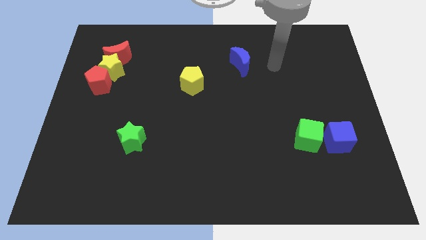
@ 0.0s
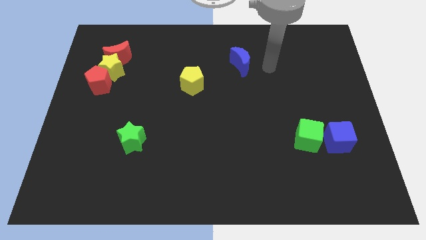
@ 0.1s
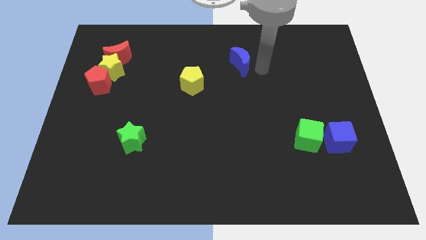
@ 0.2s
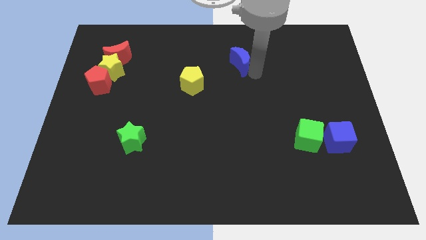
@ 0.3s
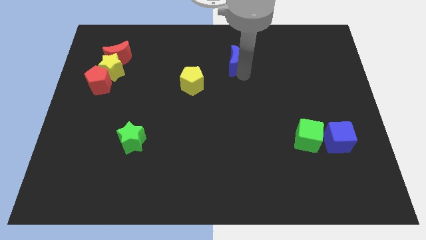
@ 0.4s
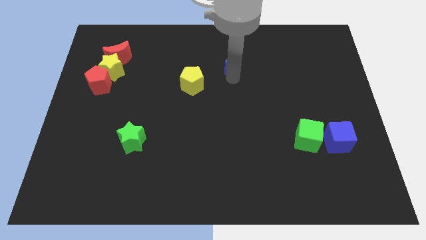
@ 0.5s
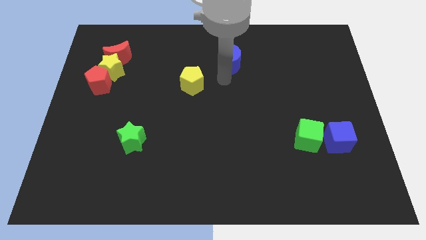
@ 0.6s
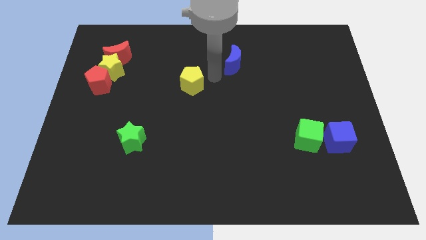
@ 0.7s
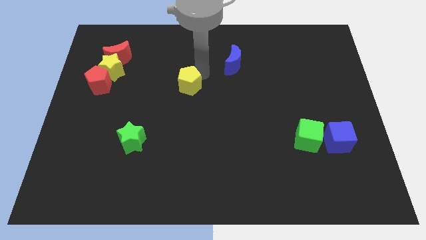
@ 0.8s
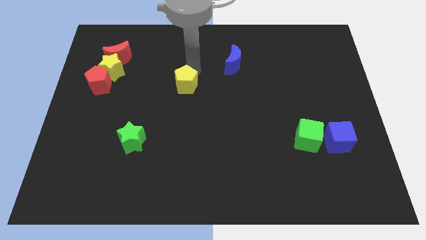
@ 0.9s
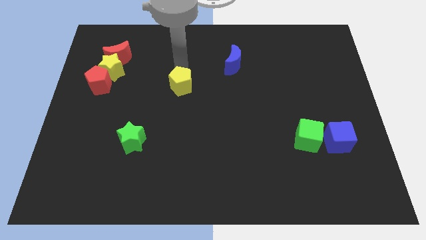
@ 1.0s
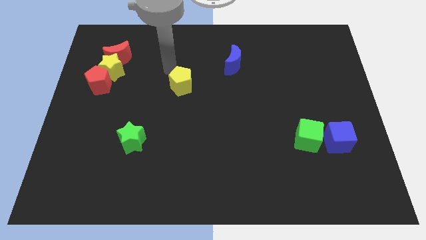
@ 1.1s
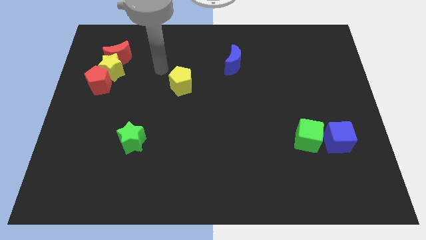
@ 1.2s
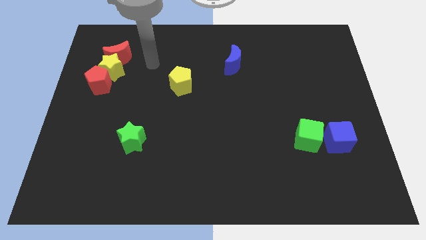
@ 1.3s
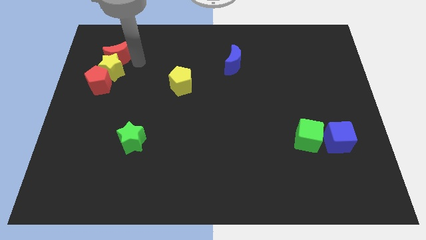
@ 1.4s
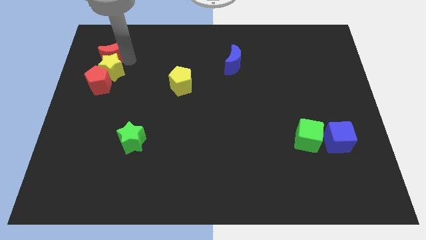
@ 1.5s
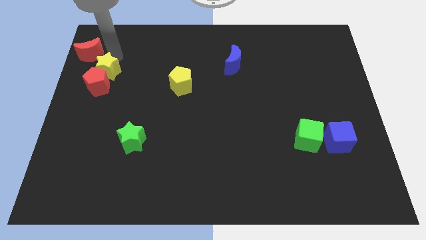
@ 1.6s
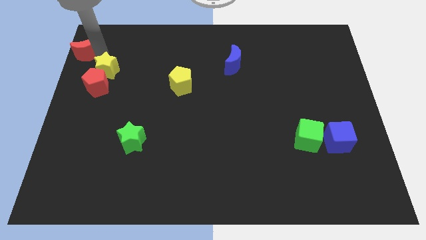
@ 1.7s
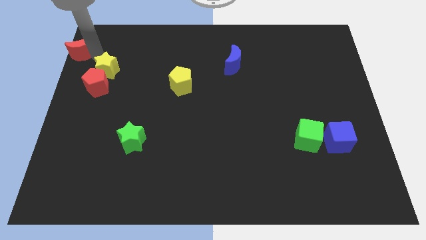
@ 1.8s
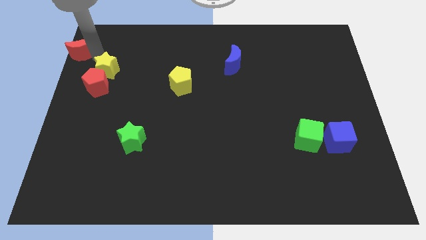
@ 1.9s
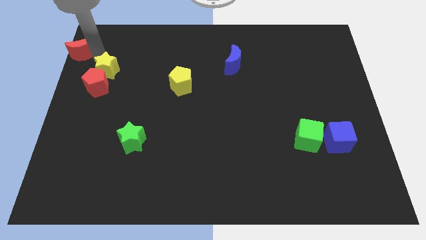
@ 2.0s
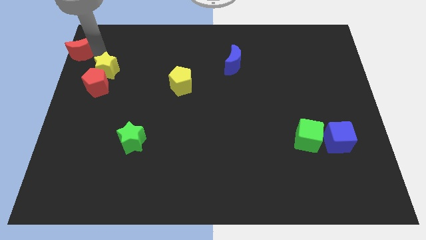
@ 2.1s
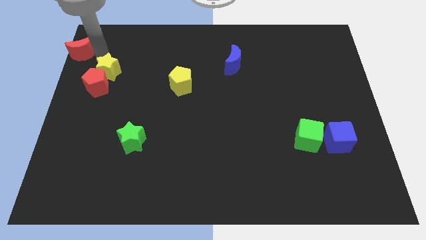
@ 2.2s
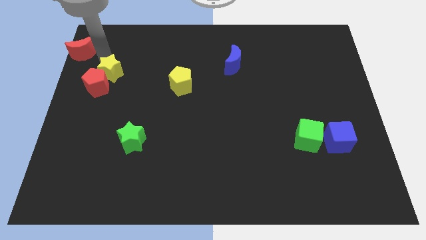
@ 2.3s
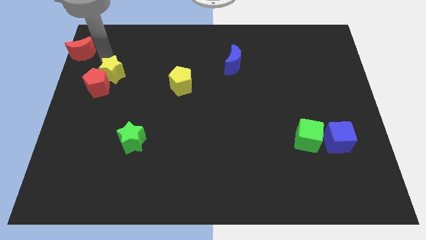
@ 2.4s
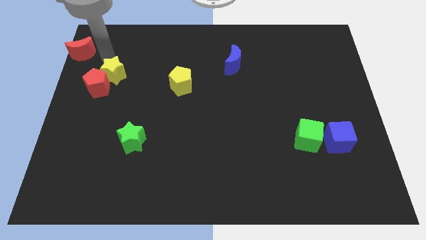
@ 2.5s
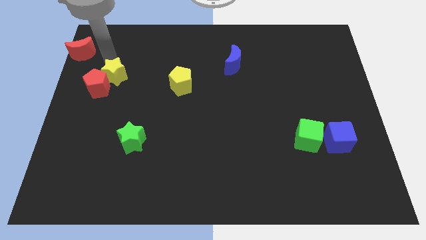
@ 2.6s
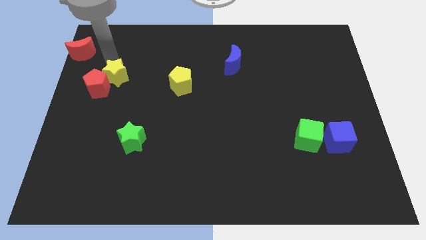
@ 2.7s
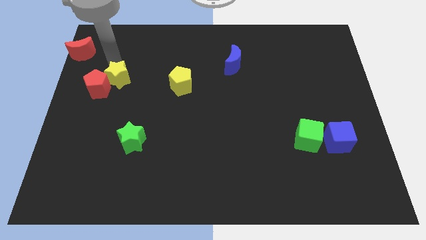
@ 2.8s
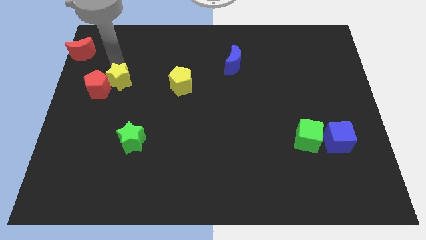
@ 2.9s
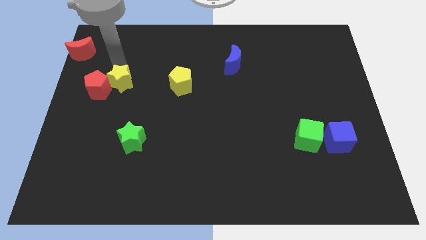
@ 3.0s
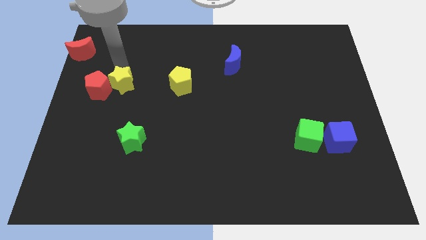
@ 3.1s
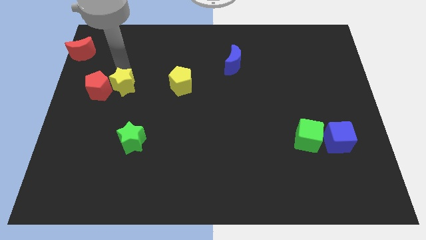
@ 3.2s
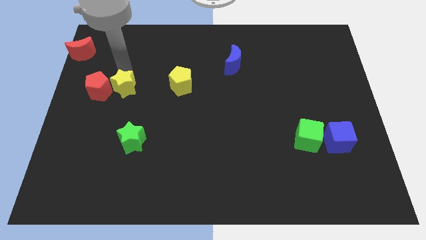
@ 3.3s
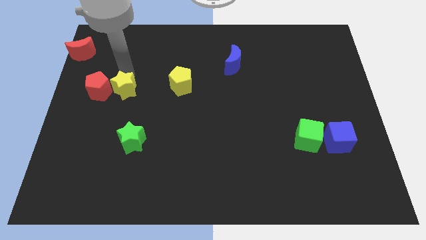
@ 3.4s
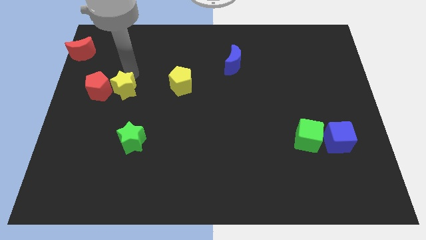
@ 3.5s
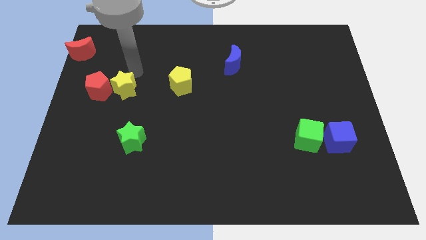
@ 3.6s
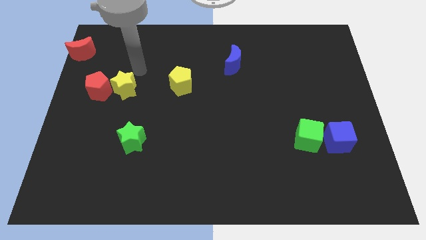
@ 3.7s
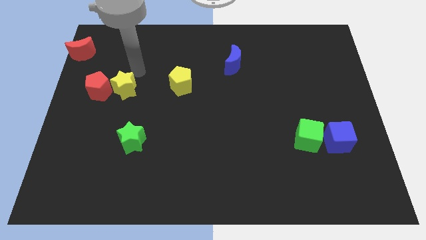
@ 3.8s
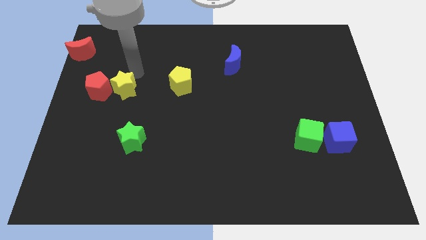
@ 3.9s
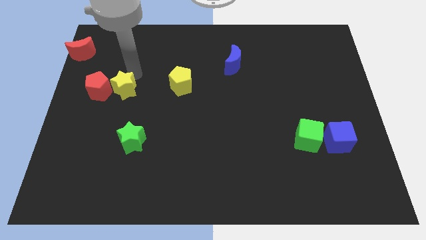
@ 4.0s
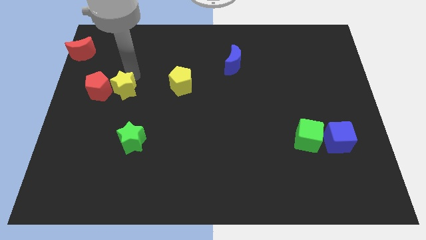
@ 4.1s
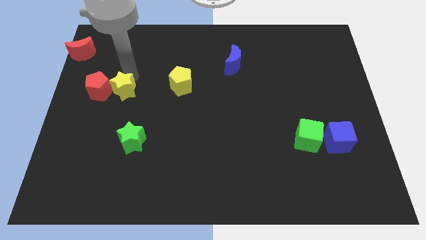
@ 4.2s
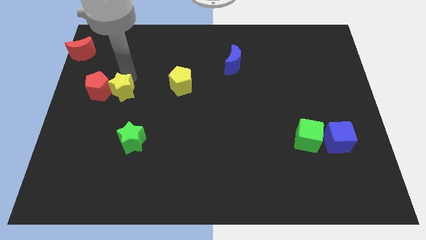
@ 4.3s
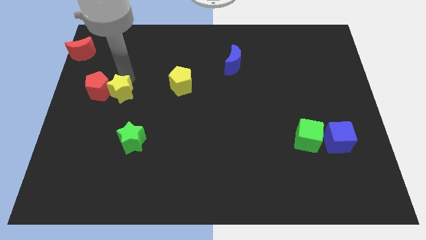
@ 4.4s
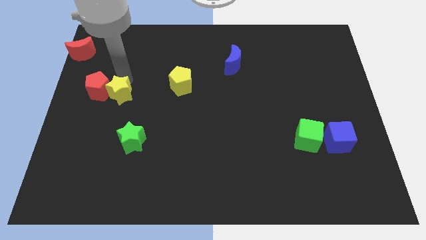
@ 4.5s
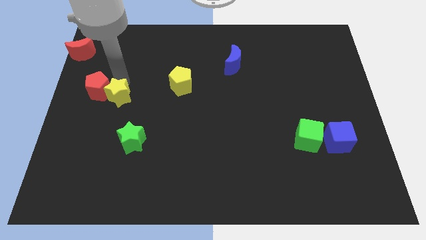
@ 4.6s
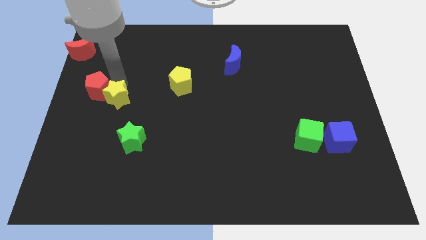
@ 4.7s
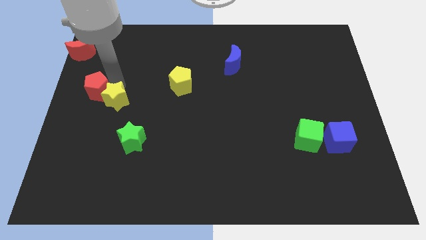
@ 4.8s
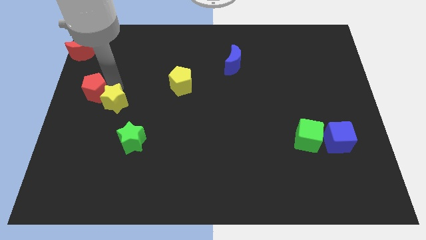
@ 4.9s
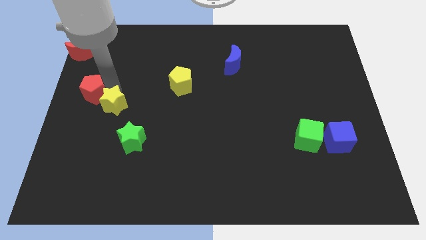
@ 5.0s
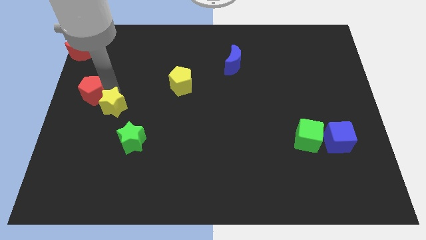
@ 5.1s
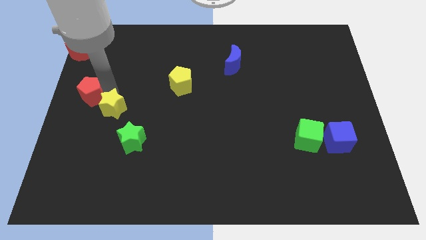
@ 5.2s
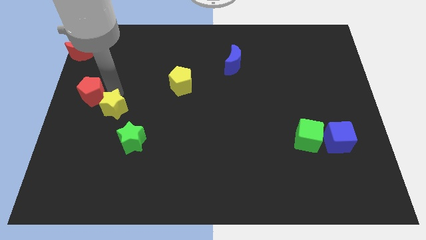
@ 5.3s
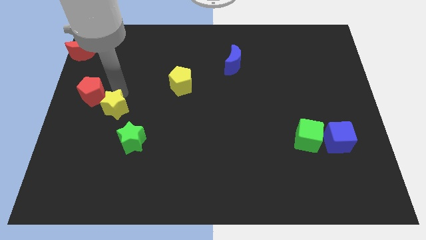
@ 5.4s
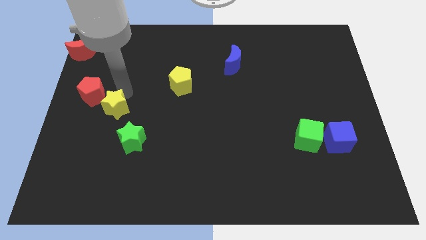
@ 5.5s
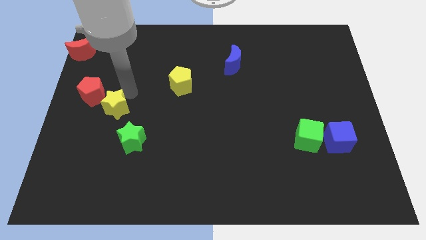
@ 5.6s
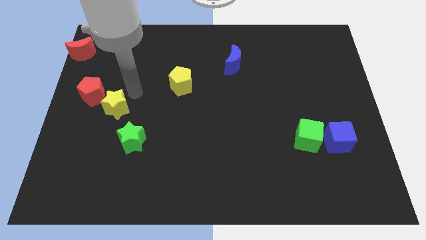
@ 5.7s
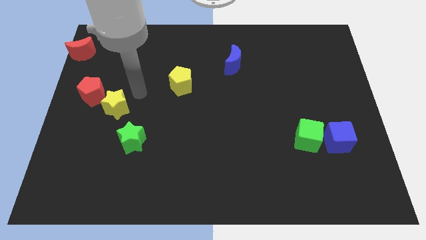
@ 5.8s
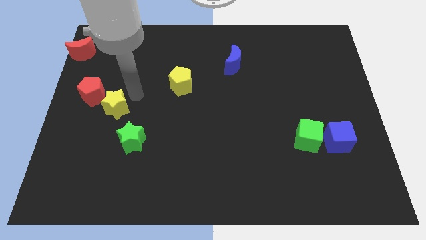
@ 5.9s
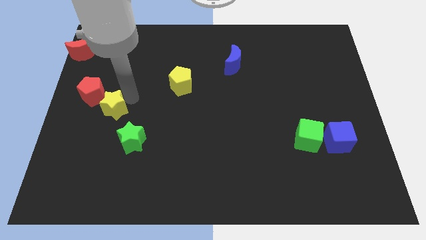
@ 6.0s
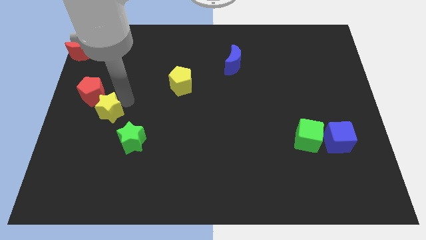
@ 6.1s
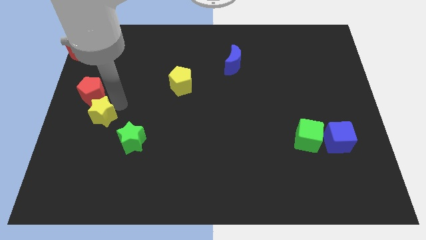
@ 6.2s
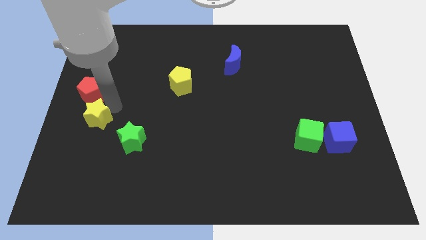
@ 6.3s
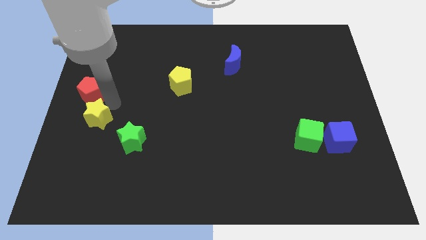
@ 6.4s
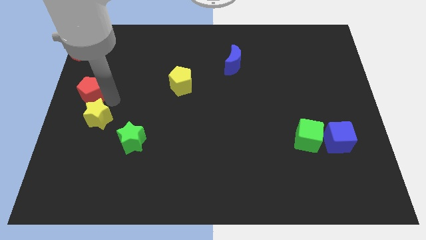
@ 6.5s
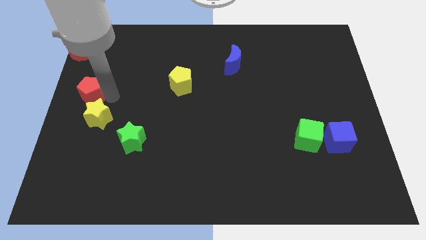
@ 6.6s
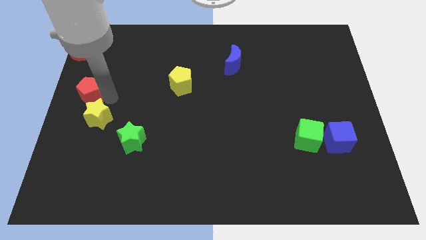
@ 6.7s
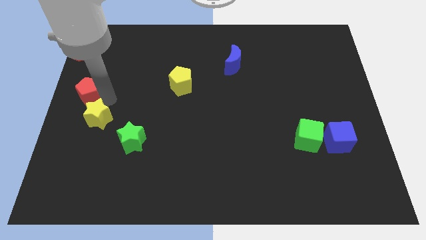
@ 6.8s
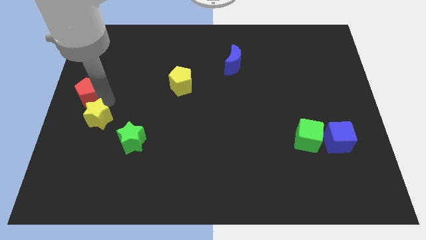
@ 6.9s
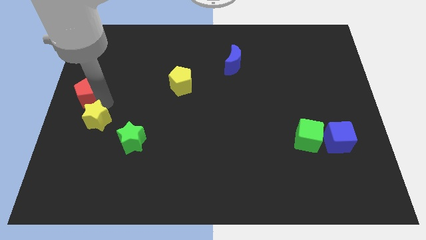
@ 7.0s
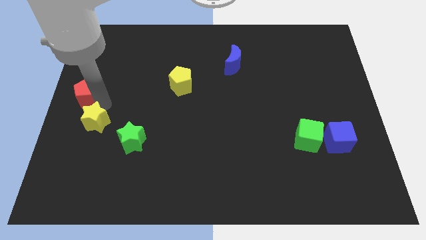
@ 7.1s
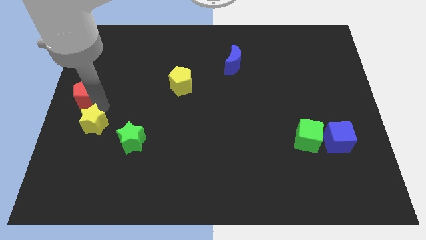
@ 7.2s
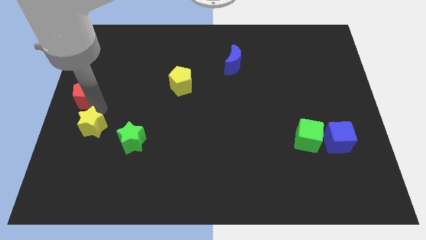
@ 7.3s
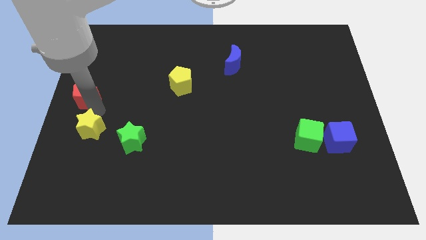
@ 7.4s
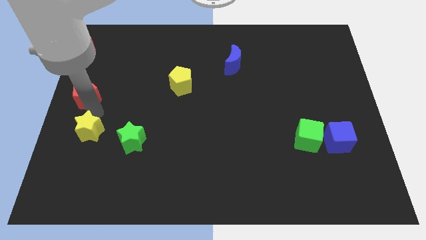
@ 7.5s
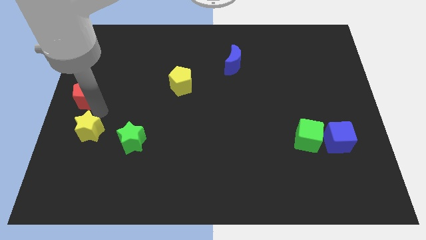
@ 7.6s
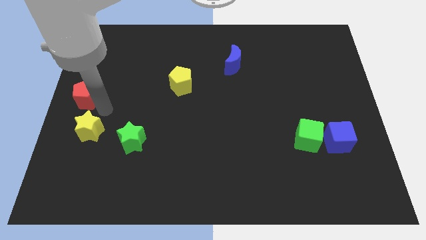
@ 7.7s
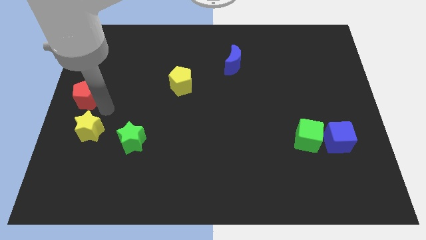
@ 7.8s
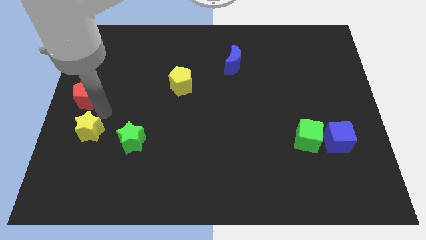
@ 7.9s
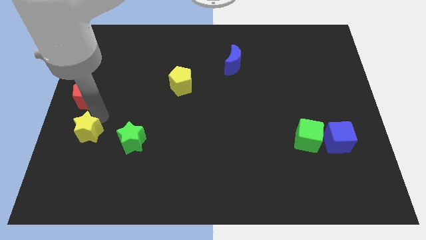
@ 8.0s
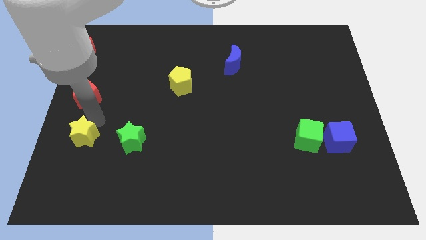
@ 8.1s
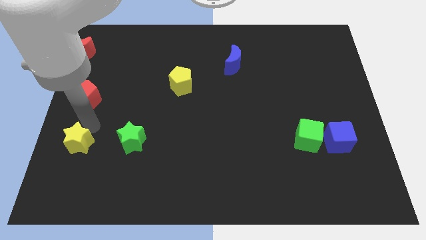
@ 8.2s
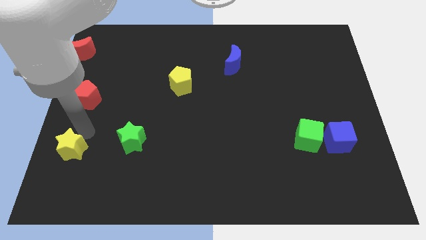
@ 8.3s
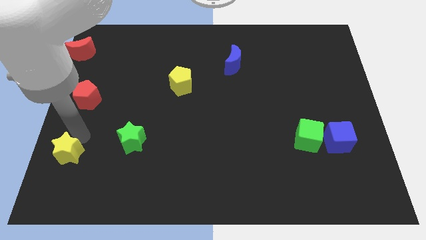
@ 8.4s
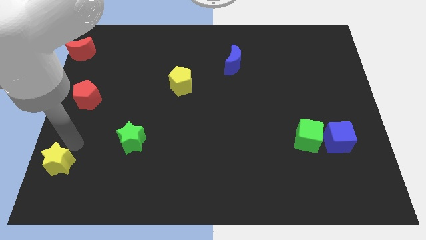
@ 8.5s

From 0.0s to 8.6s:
put the yellow star to the bottom left of the board
